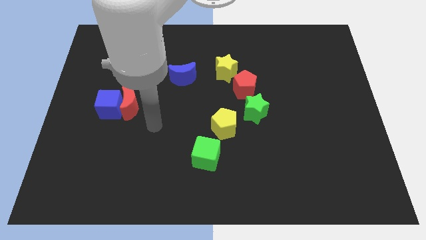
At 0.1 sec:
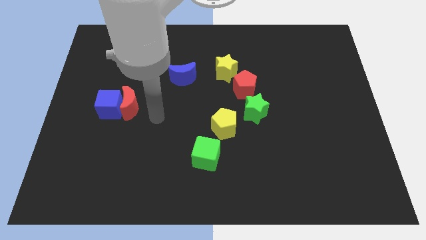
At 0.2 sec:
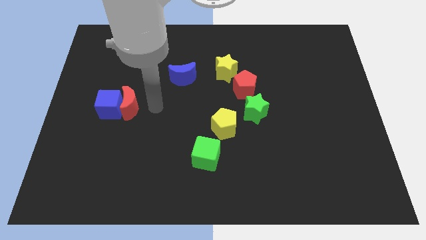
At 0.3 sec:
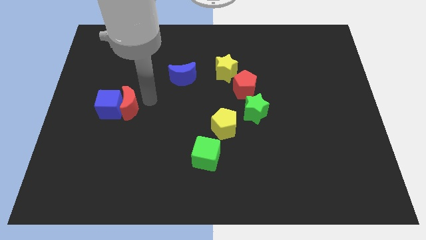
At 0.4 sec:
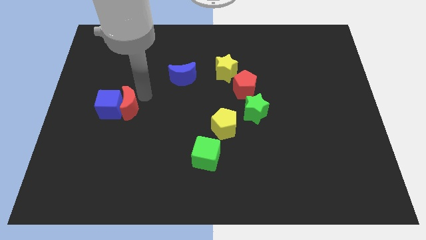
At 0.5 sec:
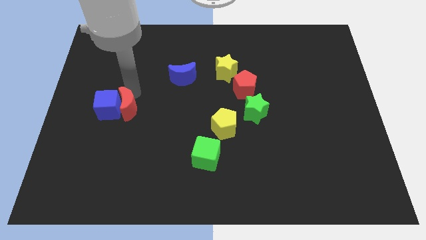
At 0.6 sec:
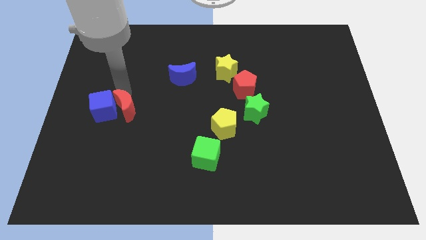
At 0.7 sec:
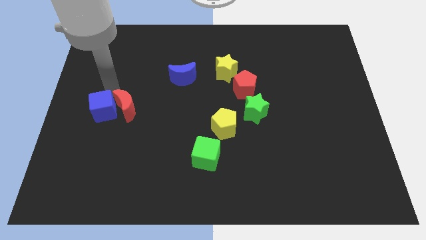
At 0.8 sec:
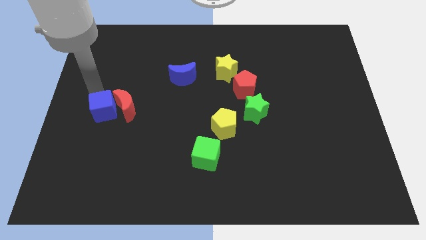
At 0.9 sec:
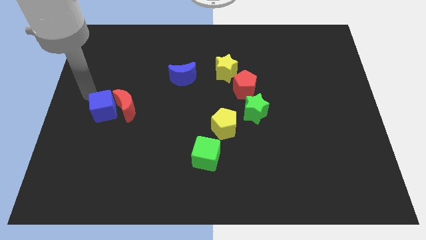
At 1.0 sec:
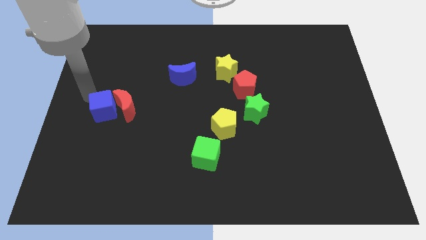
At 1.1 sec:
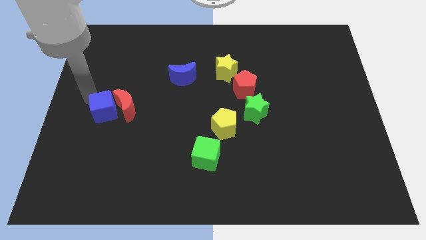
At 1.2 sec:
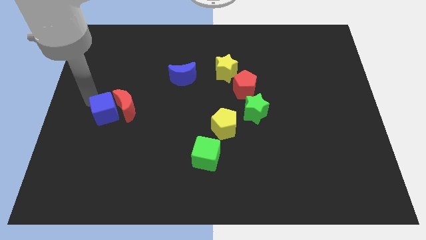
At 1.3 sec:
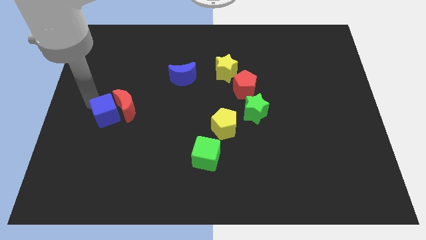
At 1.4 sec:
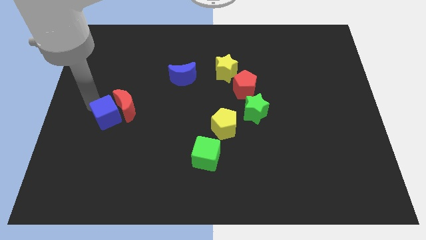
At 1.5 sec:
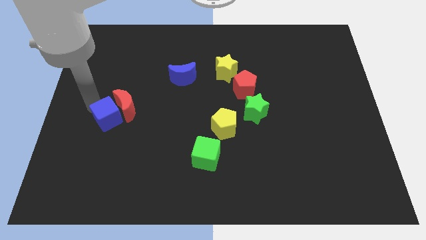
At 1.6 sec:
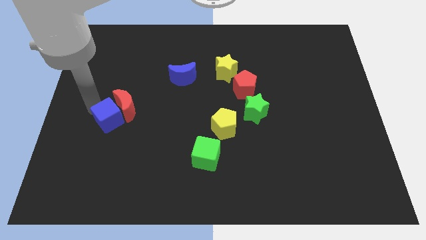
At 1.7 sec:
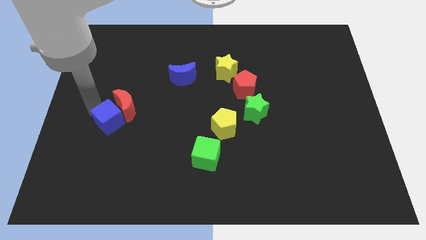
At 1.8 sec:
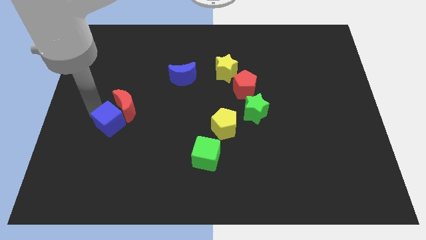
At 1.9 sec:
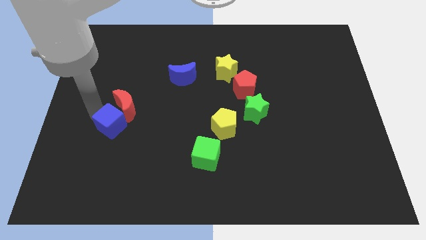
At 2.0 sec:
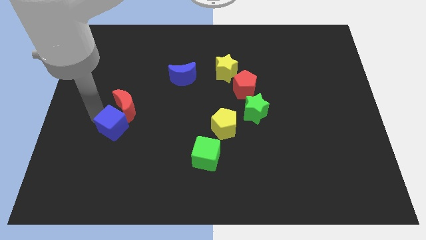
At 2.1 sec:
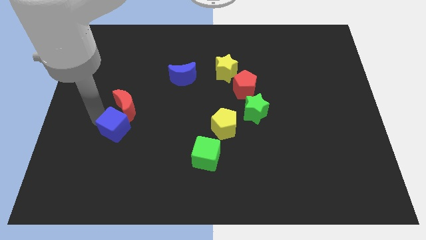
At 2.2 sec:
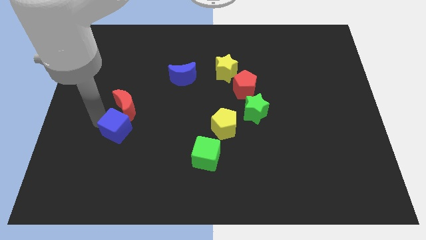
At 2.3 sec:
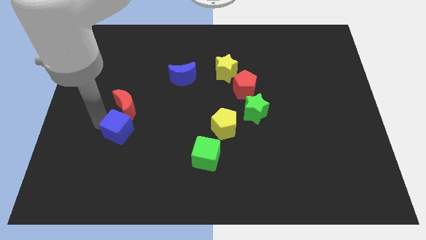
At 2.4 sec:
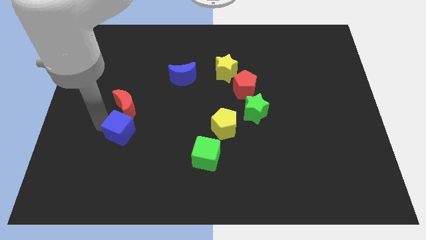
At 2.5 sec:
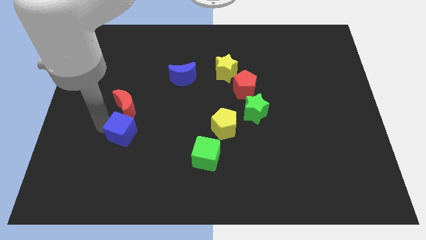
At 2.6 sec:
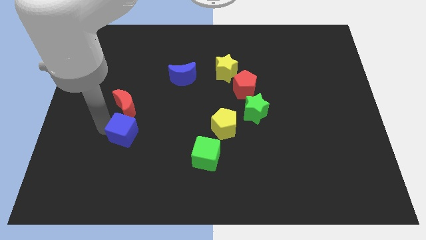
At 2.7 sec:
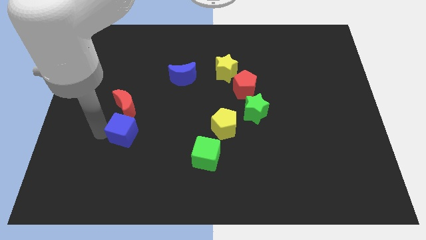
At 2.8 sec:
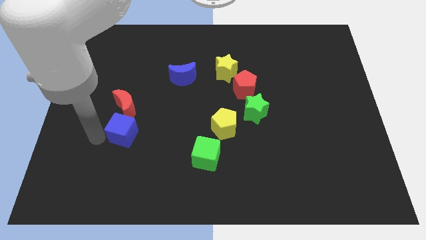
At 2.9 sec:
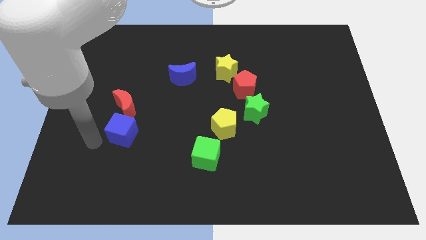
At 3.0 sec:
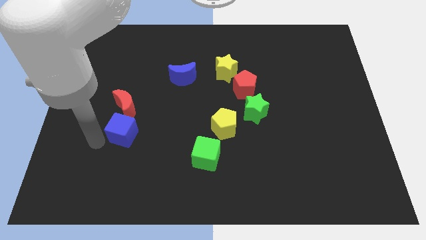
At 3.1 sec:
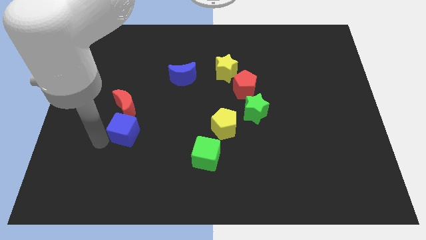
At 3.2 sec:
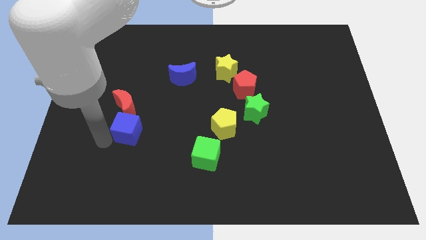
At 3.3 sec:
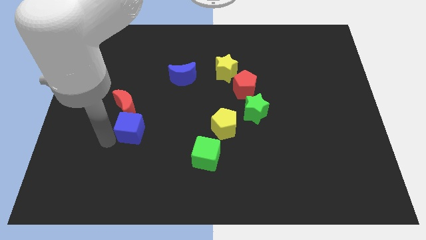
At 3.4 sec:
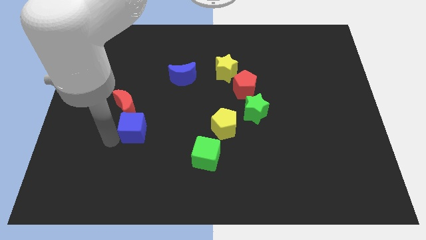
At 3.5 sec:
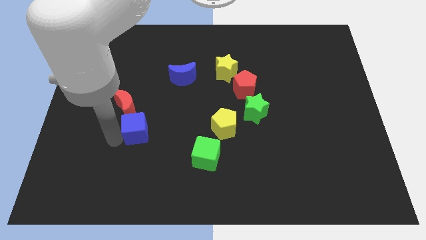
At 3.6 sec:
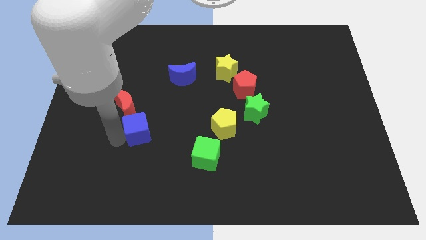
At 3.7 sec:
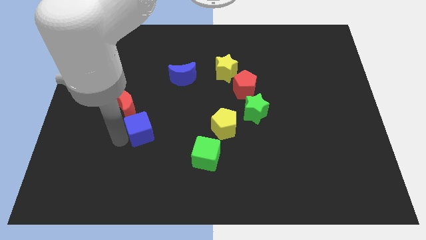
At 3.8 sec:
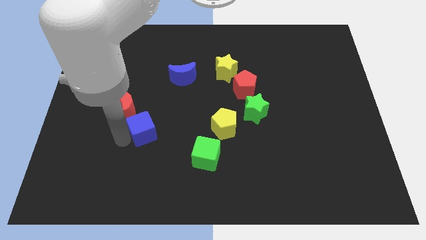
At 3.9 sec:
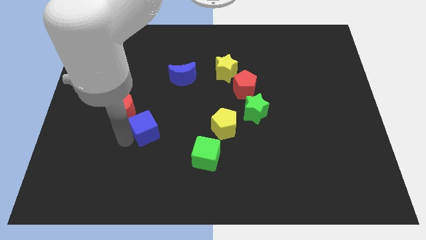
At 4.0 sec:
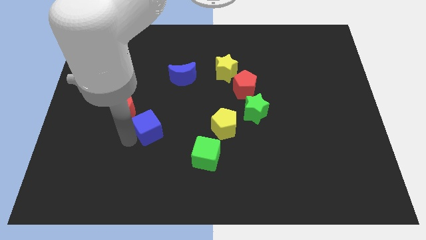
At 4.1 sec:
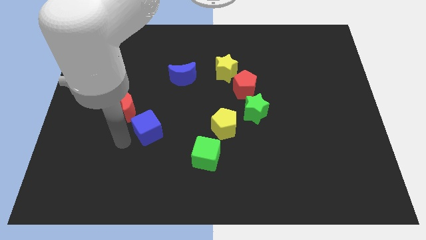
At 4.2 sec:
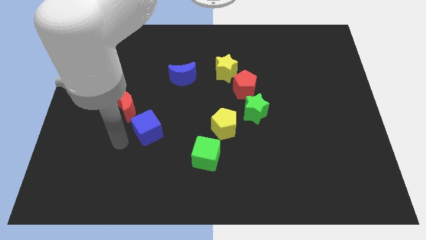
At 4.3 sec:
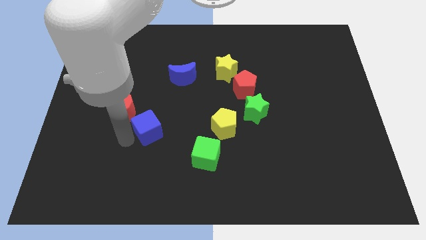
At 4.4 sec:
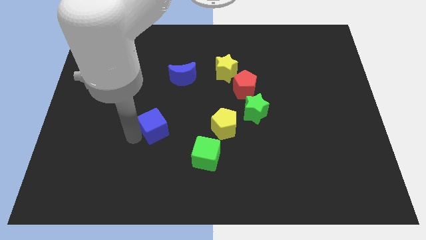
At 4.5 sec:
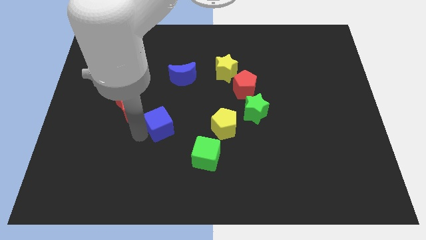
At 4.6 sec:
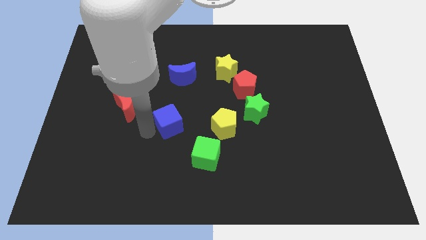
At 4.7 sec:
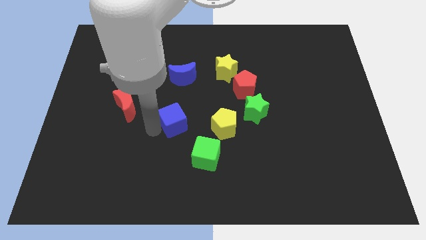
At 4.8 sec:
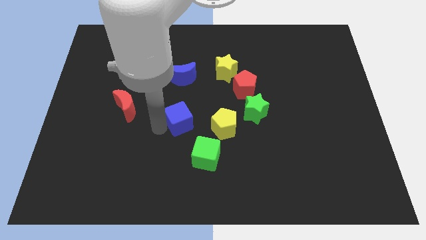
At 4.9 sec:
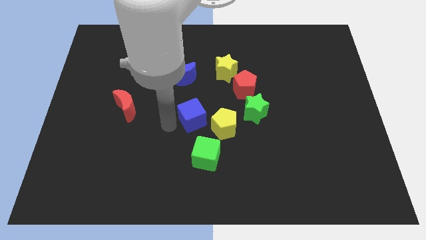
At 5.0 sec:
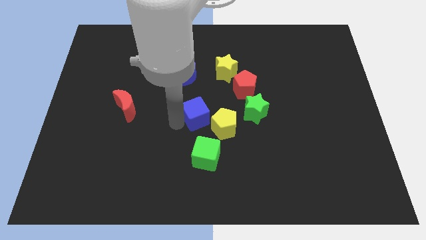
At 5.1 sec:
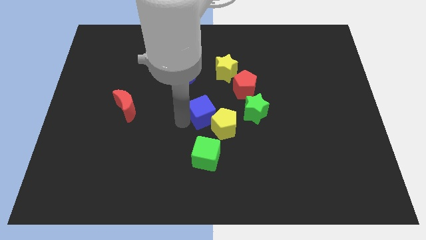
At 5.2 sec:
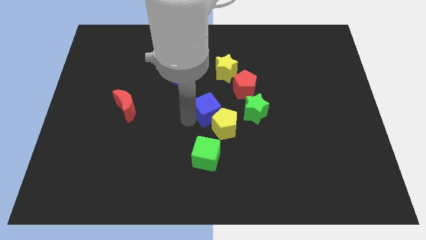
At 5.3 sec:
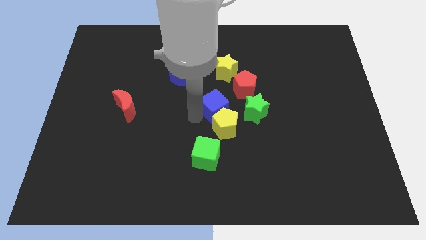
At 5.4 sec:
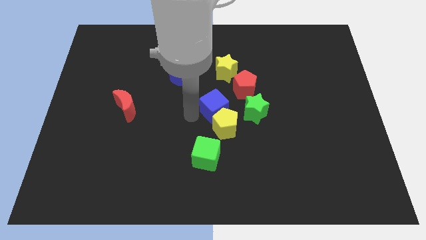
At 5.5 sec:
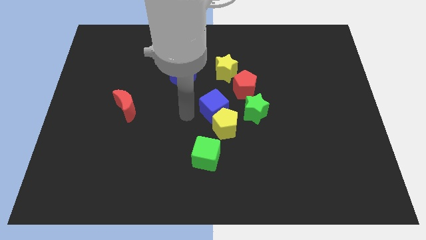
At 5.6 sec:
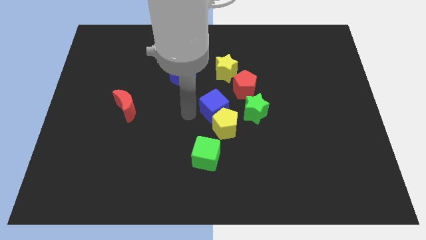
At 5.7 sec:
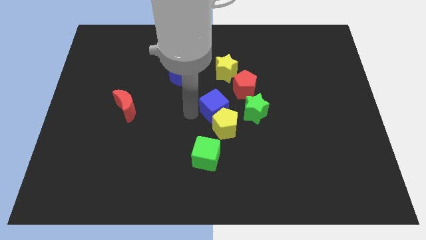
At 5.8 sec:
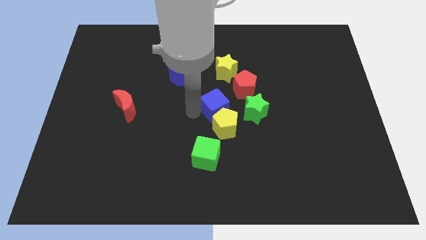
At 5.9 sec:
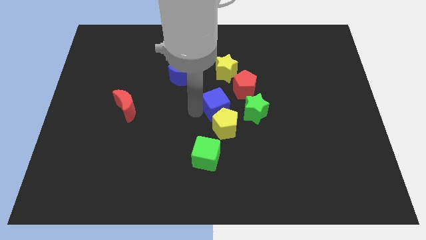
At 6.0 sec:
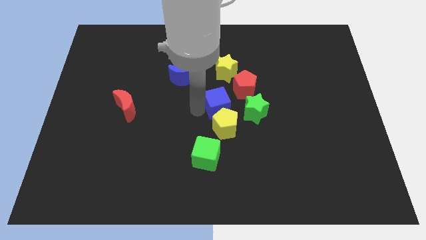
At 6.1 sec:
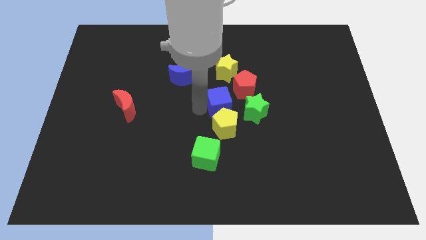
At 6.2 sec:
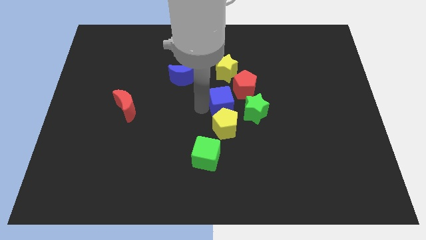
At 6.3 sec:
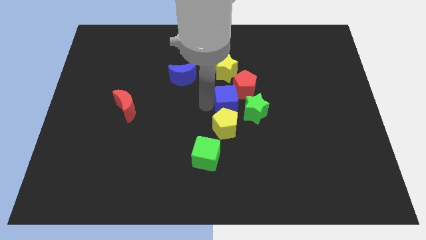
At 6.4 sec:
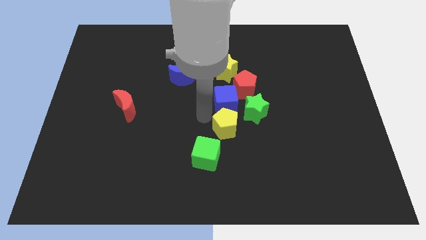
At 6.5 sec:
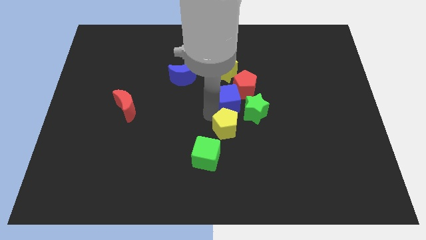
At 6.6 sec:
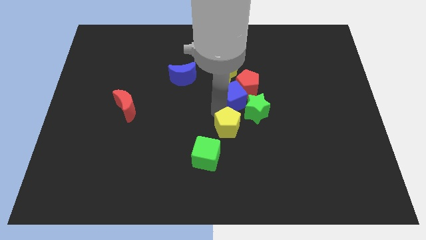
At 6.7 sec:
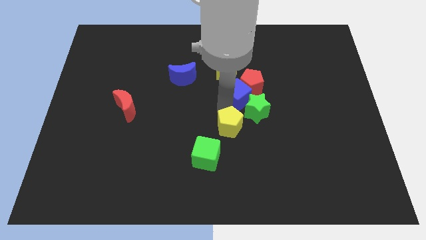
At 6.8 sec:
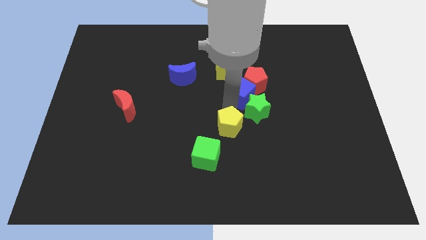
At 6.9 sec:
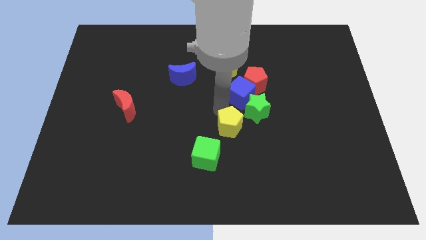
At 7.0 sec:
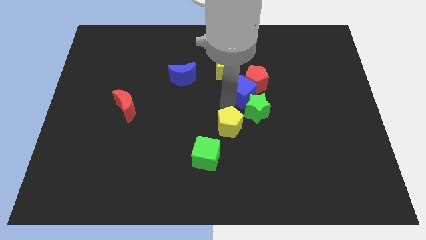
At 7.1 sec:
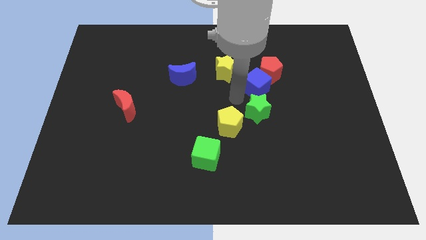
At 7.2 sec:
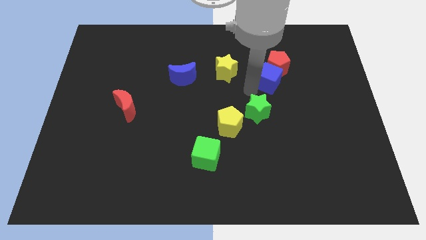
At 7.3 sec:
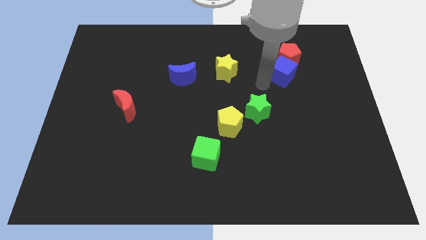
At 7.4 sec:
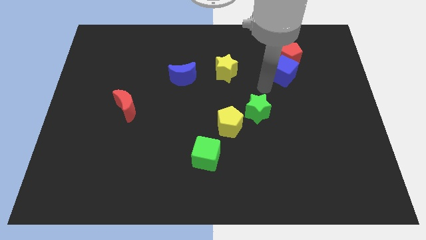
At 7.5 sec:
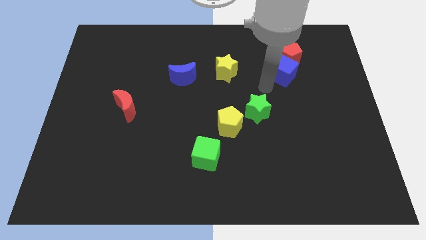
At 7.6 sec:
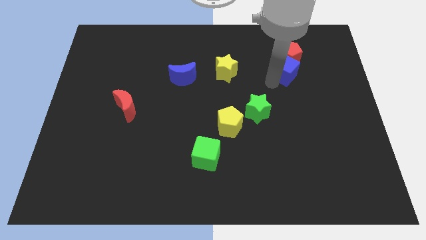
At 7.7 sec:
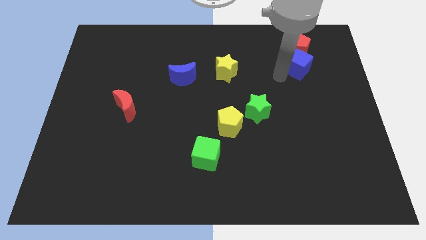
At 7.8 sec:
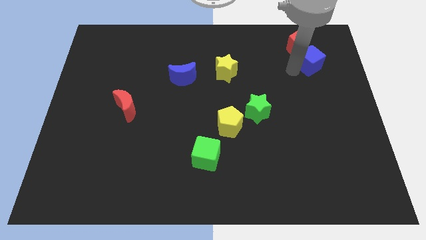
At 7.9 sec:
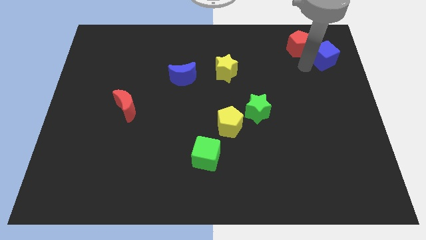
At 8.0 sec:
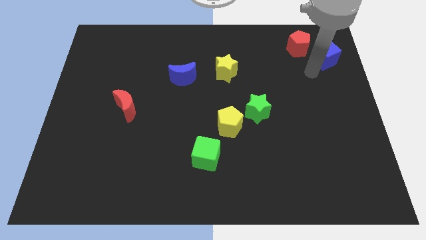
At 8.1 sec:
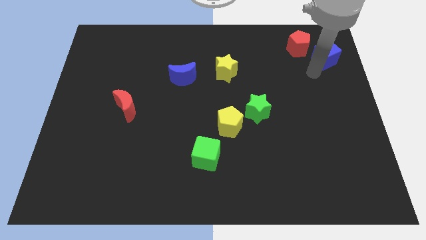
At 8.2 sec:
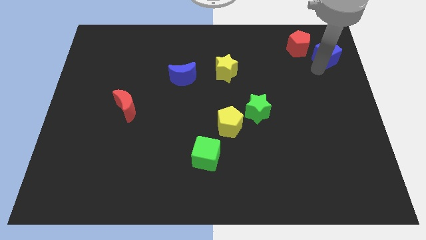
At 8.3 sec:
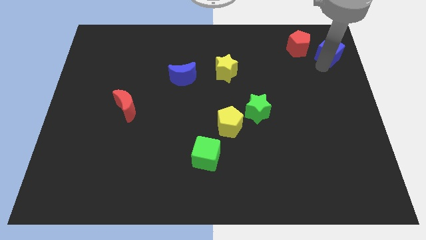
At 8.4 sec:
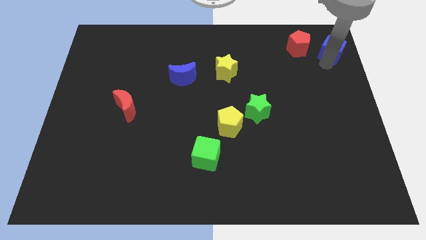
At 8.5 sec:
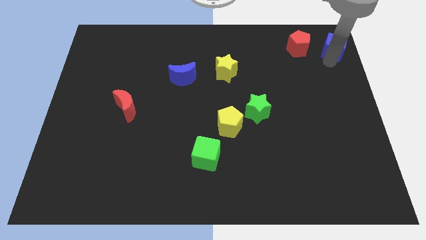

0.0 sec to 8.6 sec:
move the blue cube to the top right corner
